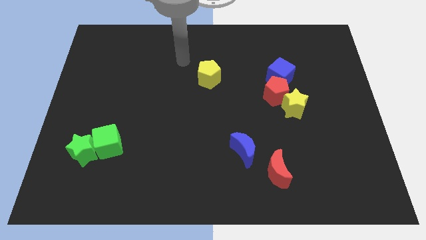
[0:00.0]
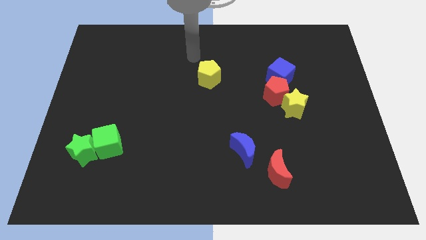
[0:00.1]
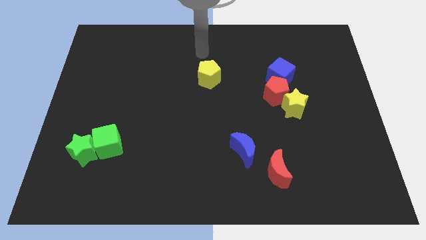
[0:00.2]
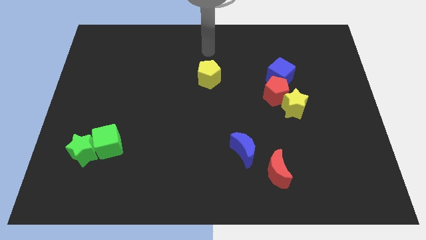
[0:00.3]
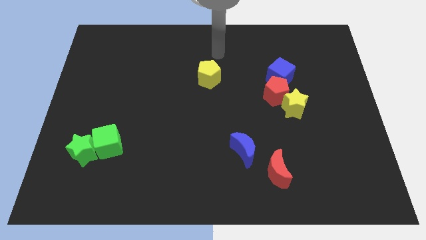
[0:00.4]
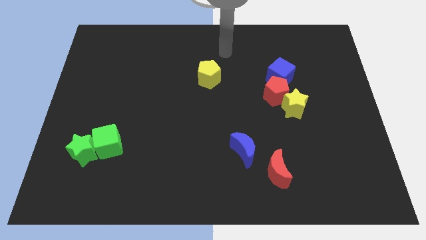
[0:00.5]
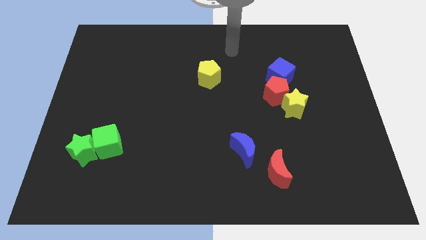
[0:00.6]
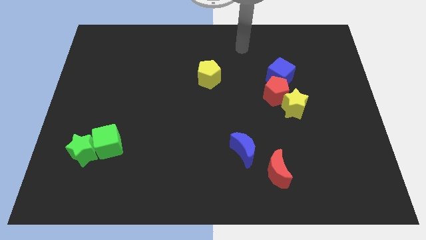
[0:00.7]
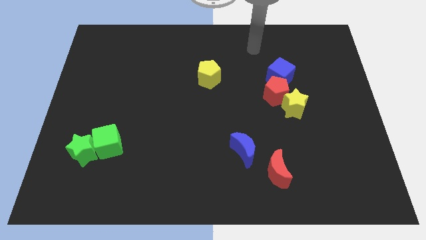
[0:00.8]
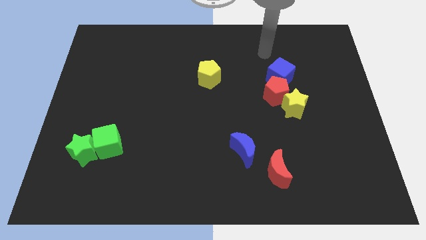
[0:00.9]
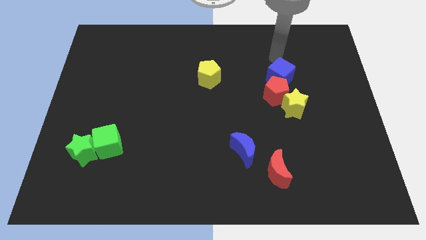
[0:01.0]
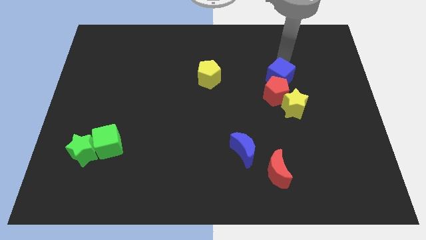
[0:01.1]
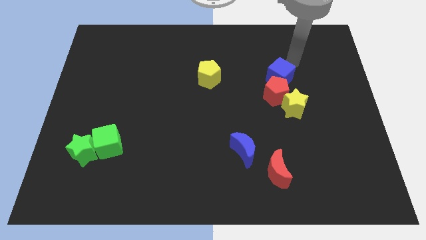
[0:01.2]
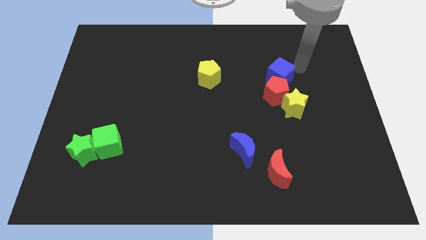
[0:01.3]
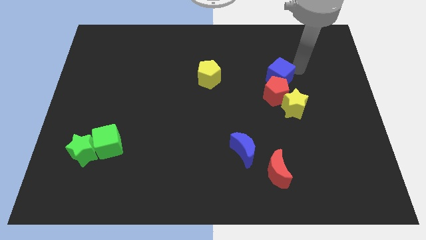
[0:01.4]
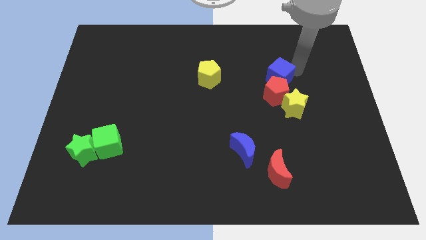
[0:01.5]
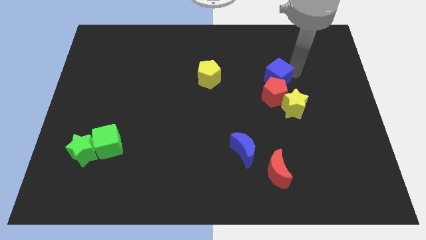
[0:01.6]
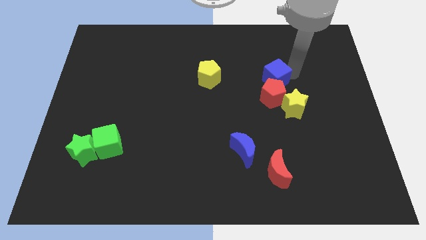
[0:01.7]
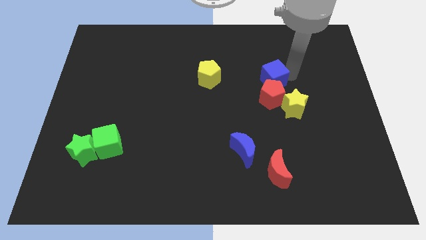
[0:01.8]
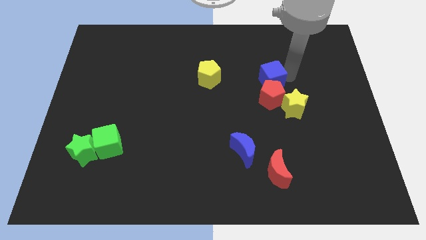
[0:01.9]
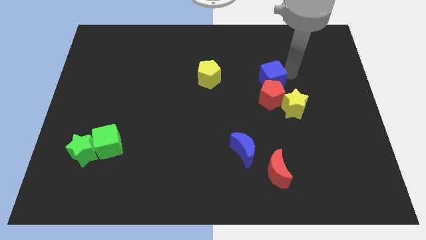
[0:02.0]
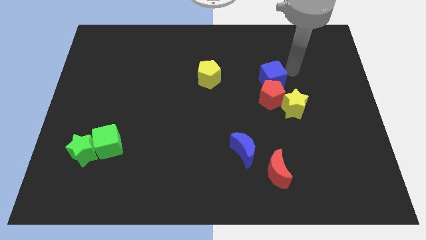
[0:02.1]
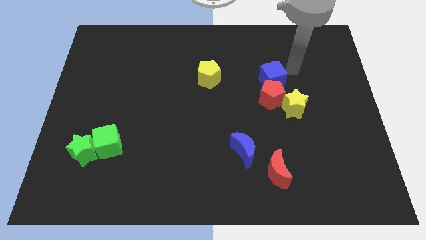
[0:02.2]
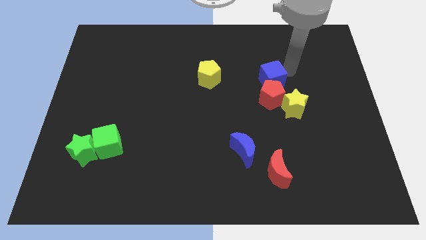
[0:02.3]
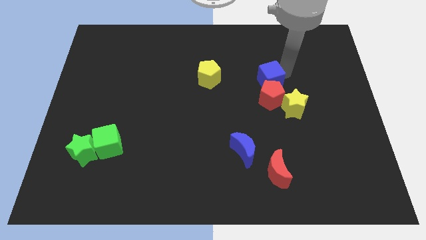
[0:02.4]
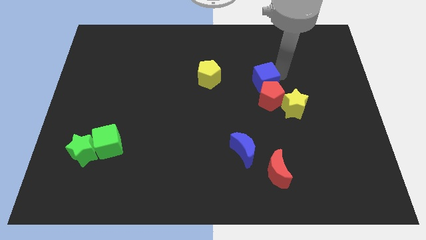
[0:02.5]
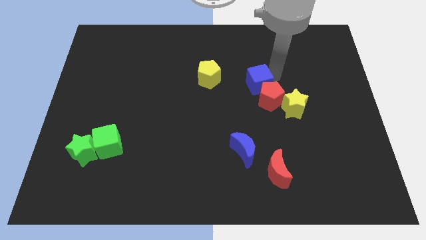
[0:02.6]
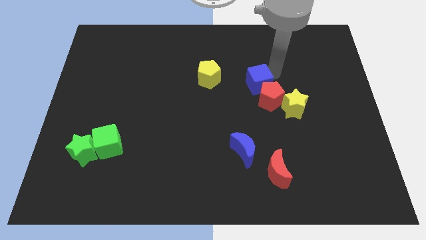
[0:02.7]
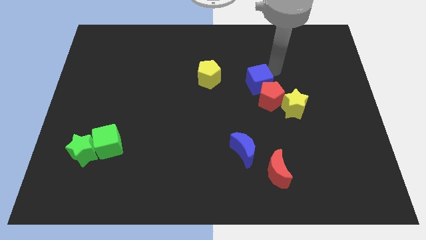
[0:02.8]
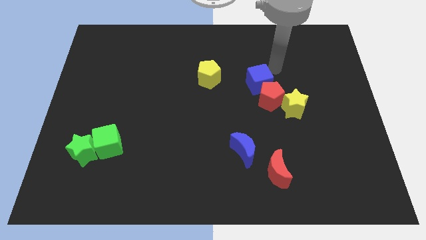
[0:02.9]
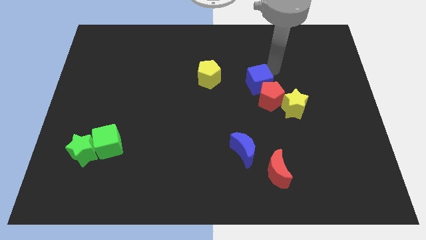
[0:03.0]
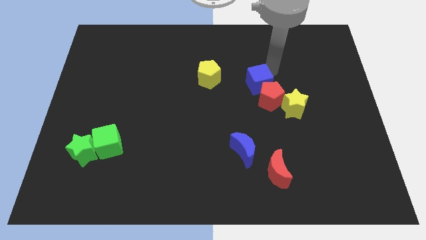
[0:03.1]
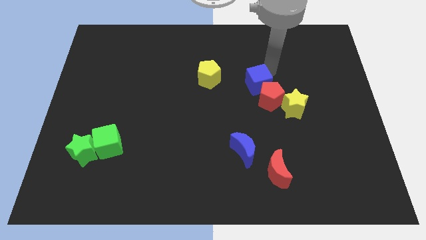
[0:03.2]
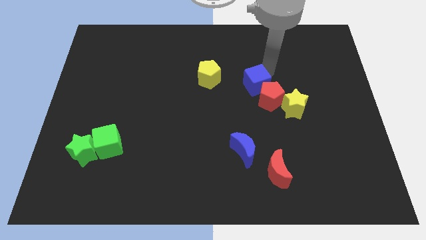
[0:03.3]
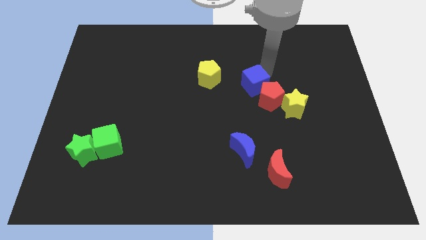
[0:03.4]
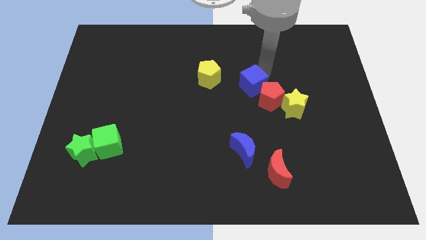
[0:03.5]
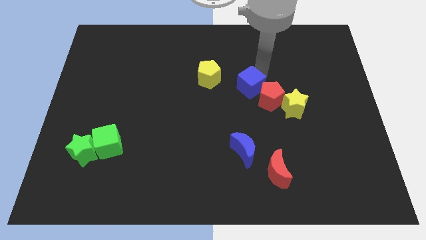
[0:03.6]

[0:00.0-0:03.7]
move the blue cube a little down and then left

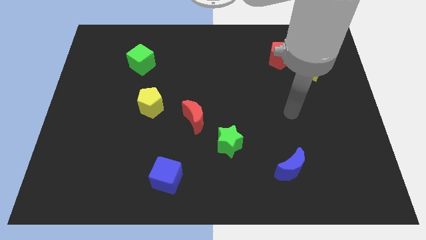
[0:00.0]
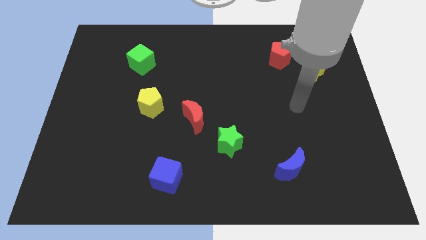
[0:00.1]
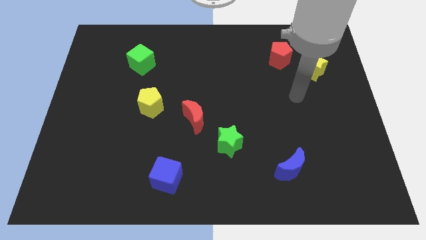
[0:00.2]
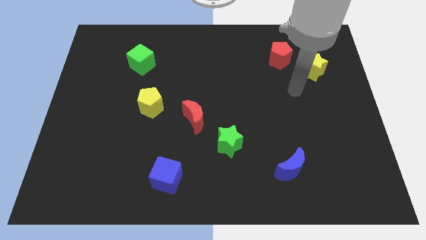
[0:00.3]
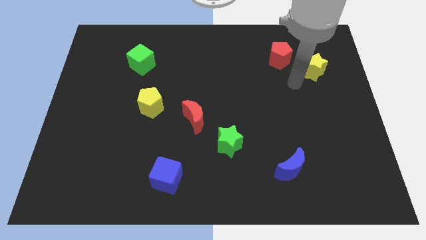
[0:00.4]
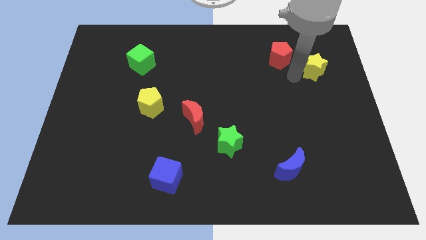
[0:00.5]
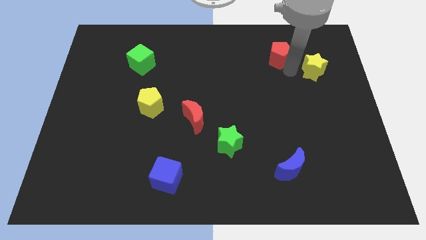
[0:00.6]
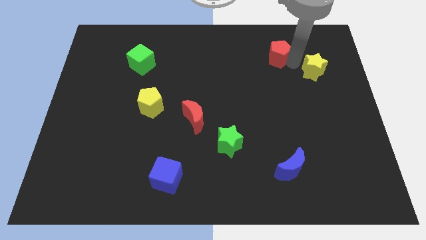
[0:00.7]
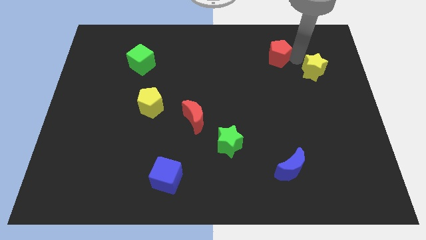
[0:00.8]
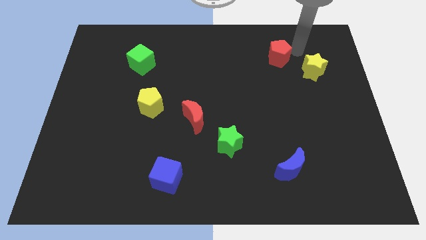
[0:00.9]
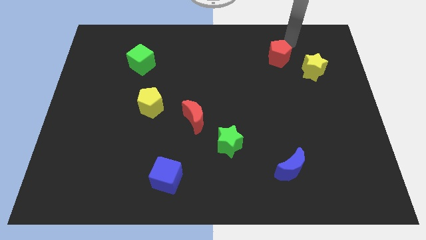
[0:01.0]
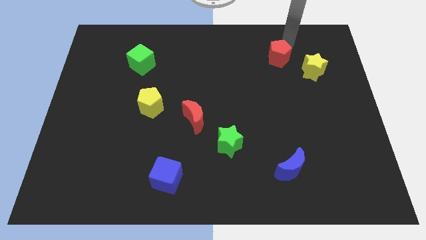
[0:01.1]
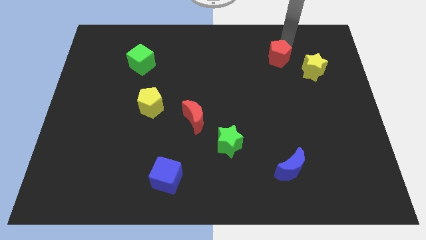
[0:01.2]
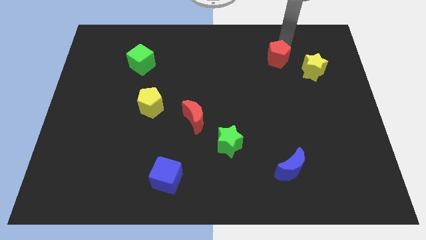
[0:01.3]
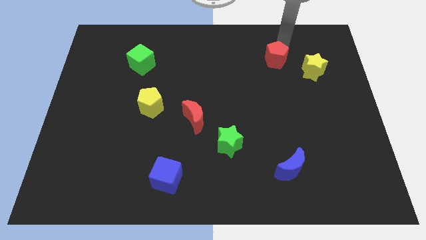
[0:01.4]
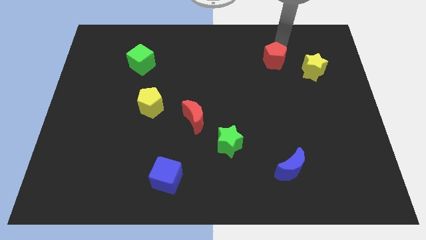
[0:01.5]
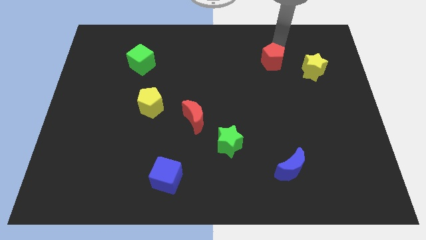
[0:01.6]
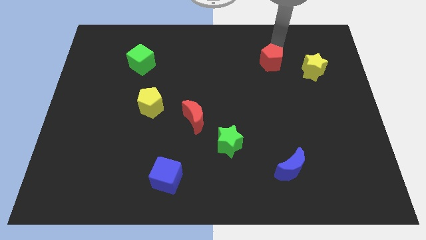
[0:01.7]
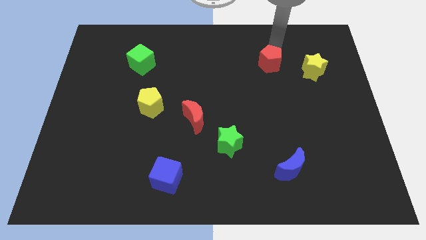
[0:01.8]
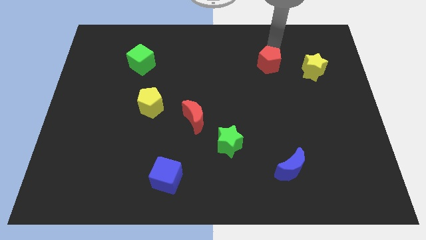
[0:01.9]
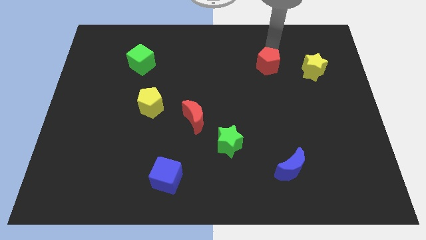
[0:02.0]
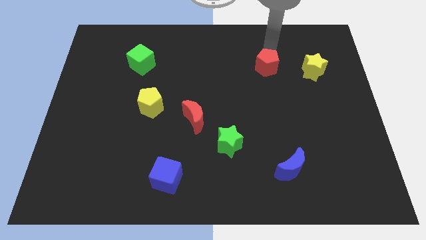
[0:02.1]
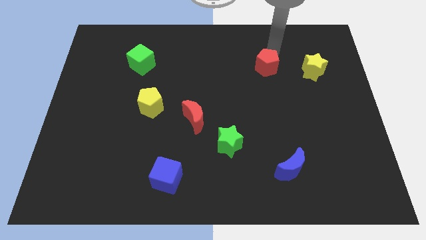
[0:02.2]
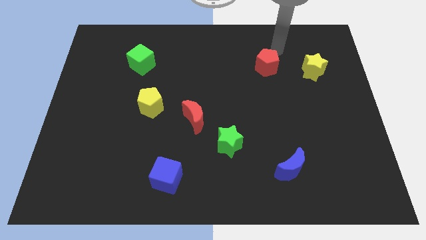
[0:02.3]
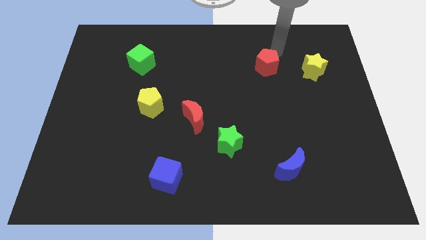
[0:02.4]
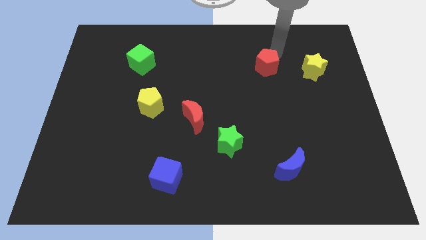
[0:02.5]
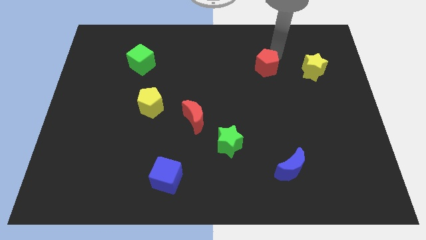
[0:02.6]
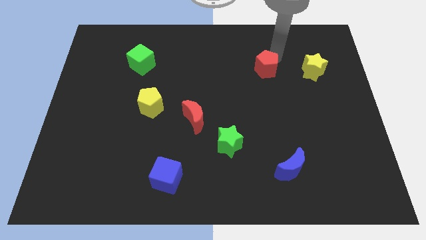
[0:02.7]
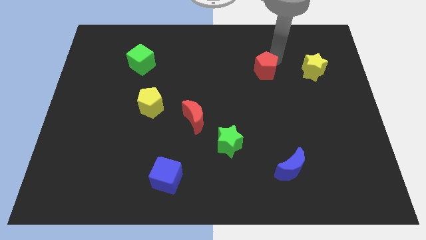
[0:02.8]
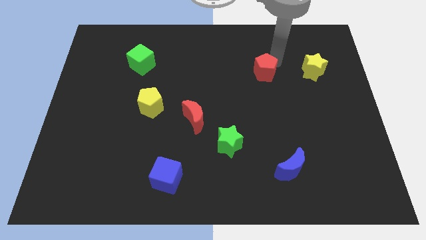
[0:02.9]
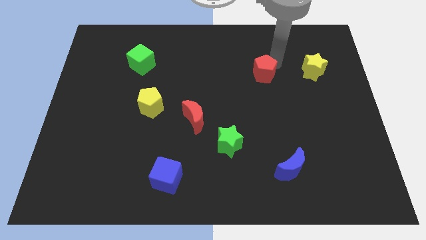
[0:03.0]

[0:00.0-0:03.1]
push the red pentagon a little bit downwards and to the left diagonally

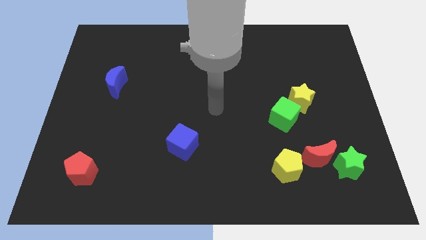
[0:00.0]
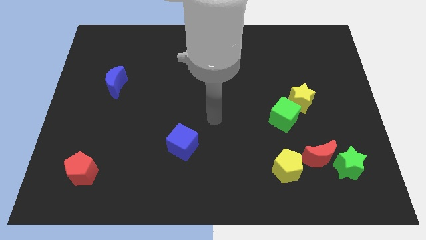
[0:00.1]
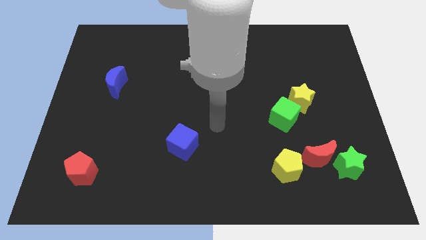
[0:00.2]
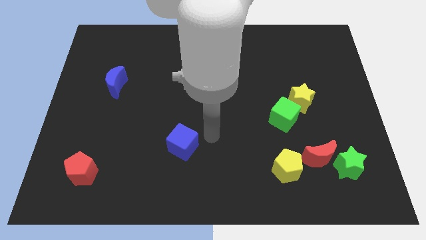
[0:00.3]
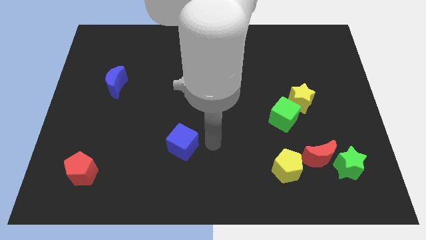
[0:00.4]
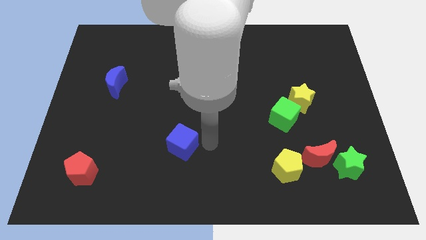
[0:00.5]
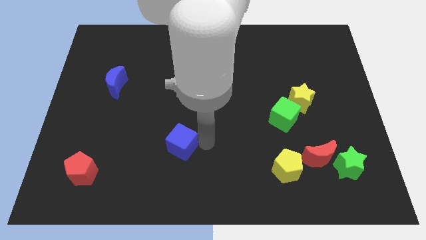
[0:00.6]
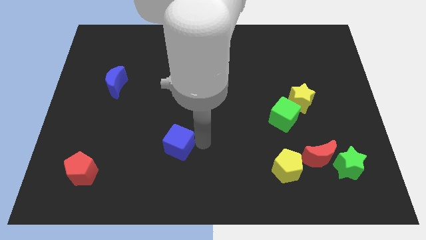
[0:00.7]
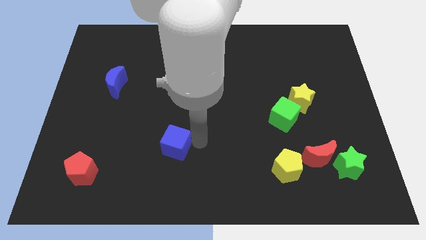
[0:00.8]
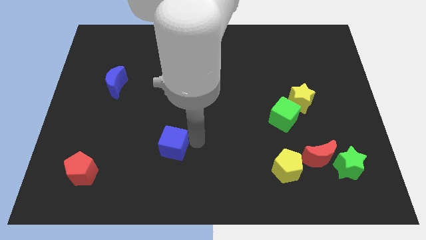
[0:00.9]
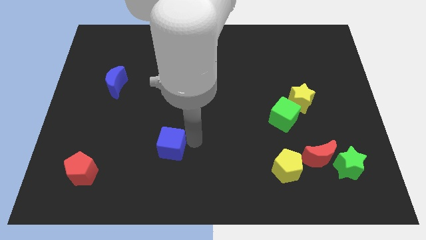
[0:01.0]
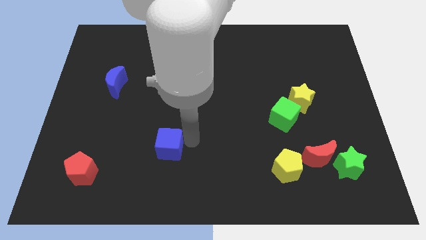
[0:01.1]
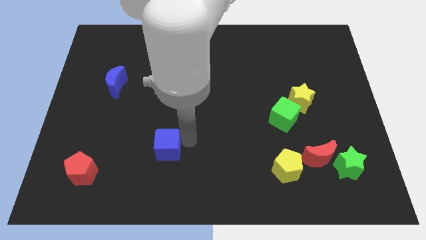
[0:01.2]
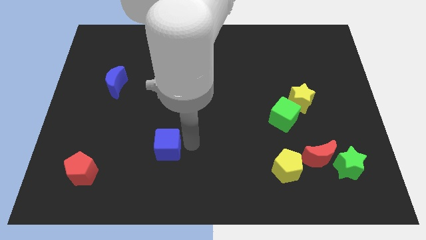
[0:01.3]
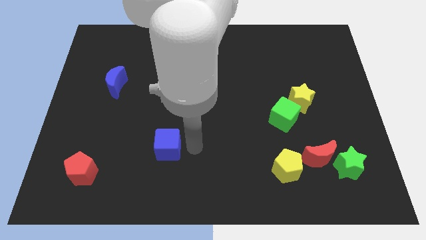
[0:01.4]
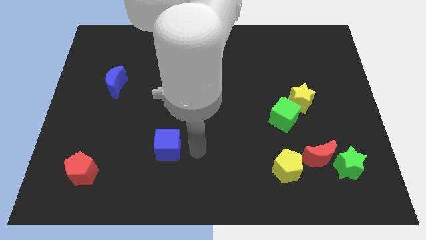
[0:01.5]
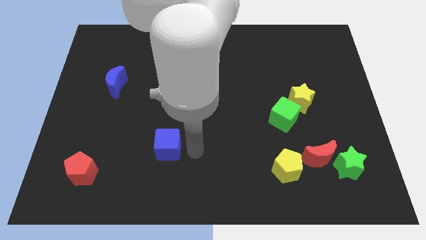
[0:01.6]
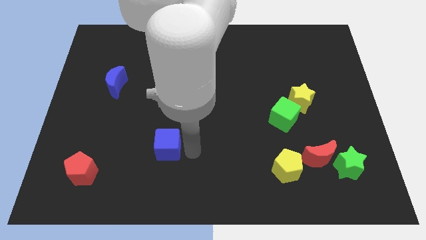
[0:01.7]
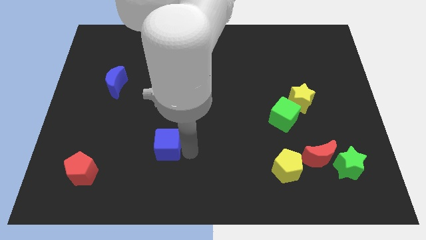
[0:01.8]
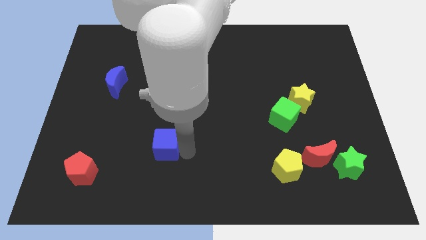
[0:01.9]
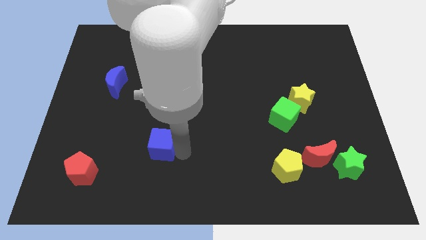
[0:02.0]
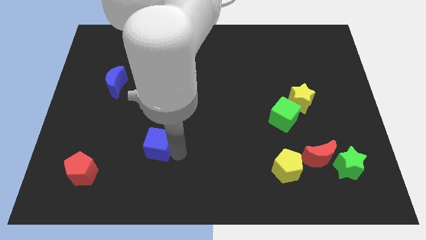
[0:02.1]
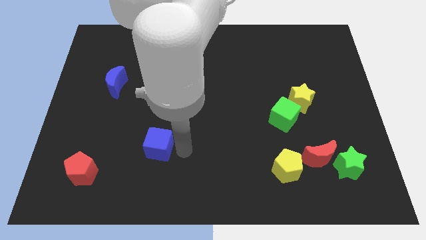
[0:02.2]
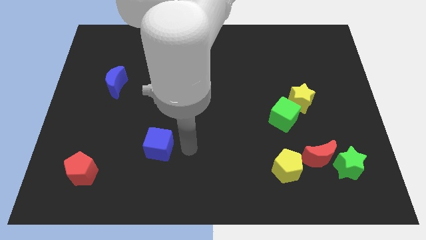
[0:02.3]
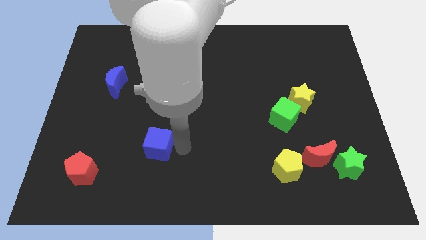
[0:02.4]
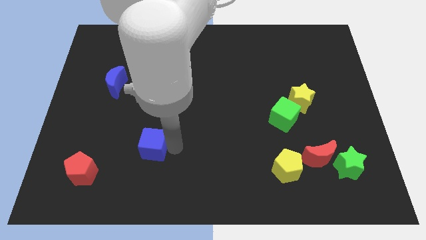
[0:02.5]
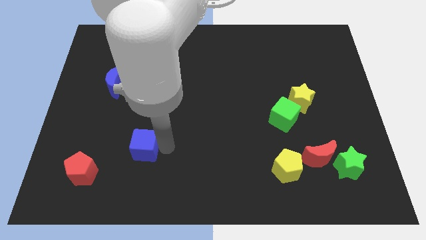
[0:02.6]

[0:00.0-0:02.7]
slightly push the blue cube left
